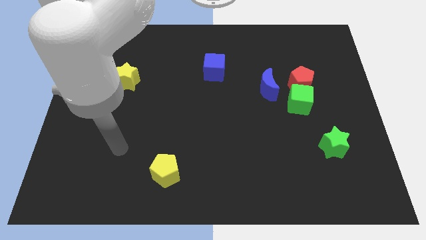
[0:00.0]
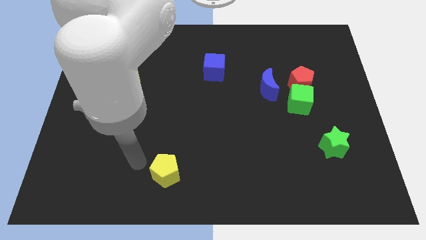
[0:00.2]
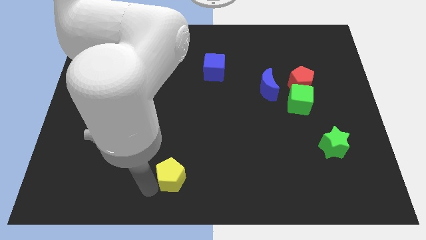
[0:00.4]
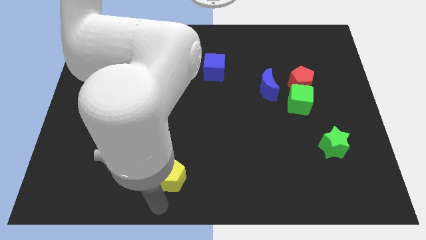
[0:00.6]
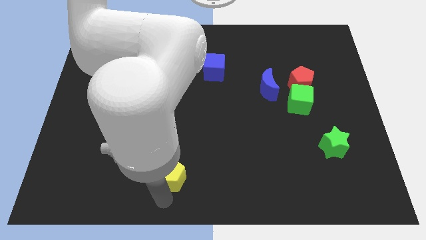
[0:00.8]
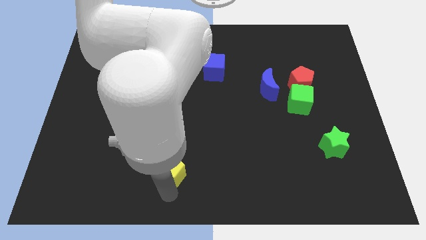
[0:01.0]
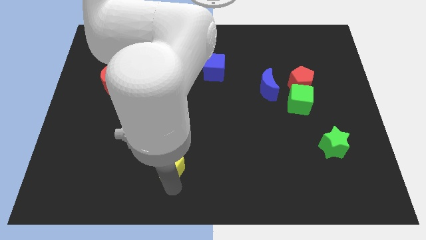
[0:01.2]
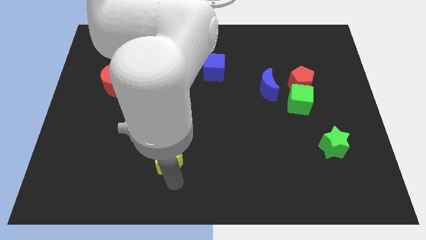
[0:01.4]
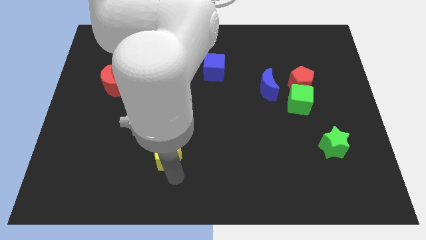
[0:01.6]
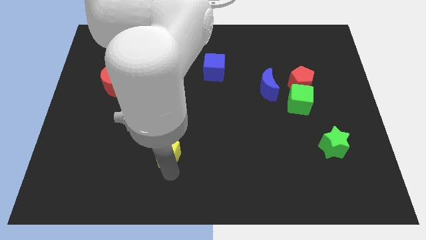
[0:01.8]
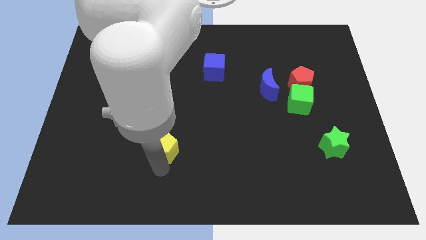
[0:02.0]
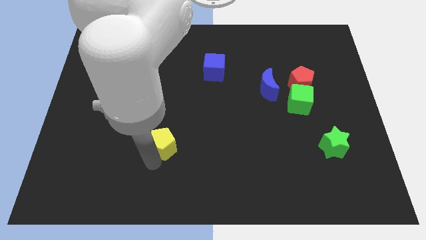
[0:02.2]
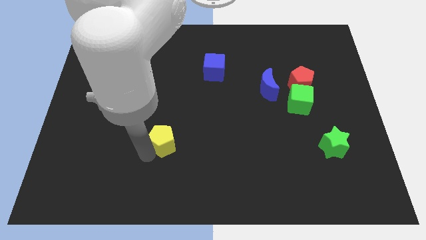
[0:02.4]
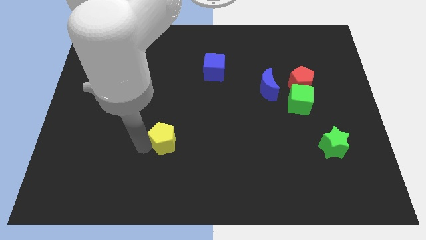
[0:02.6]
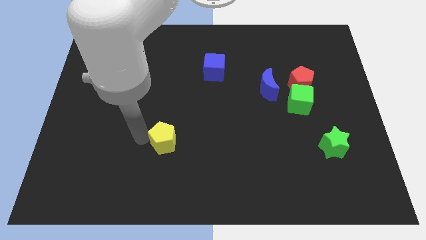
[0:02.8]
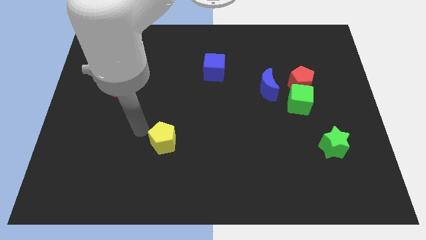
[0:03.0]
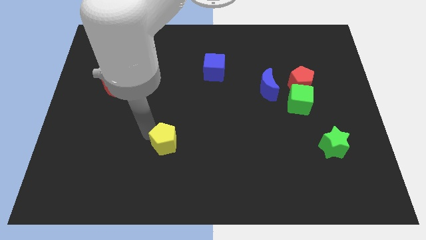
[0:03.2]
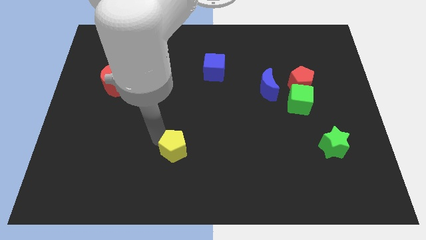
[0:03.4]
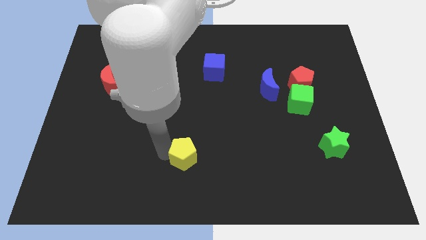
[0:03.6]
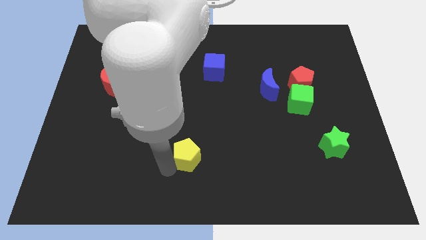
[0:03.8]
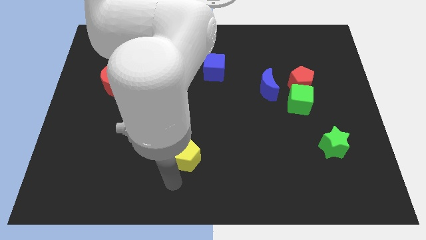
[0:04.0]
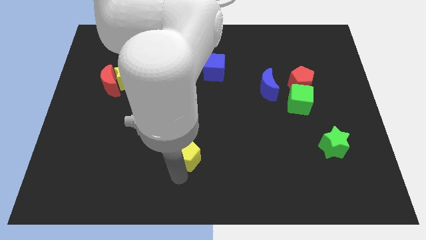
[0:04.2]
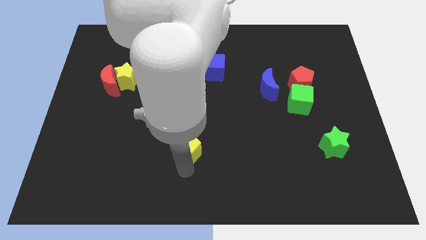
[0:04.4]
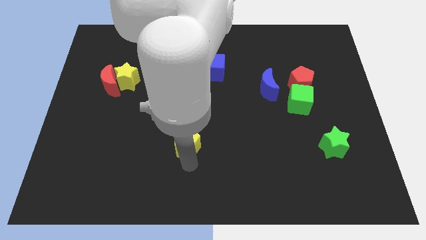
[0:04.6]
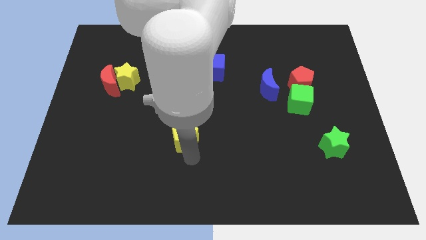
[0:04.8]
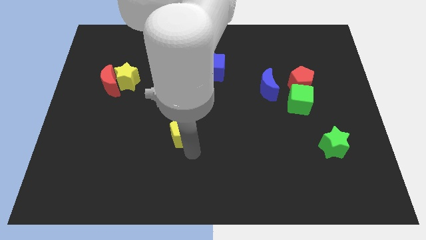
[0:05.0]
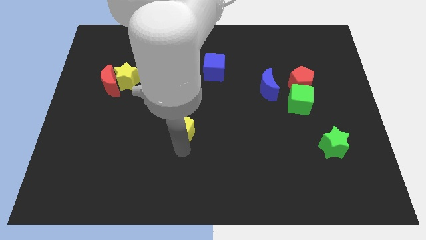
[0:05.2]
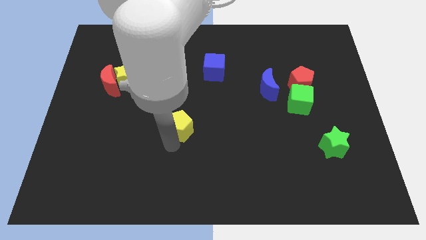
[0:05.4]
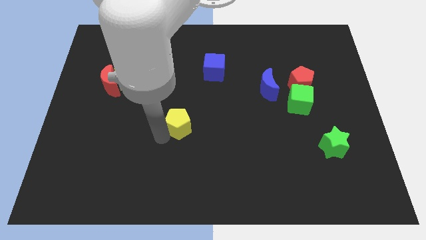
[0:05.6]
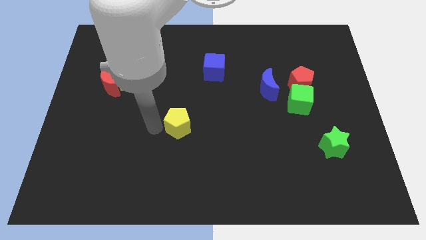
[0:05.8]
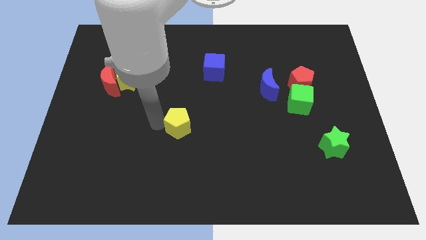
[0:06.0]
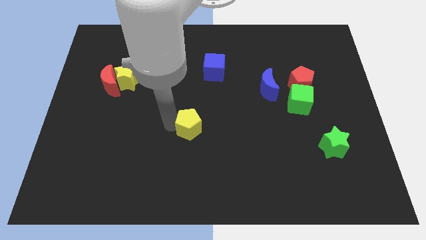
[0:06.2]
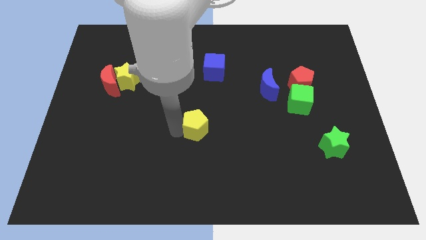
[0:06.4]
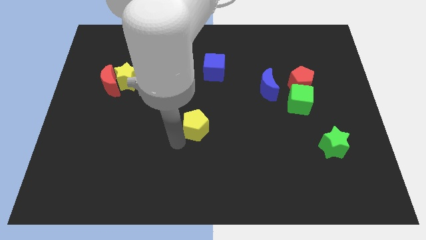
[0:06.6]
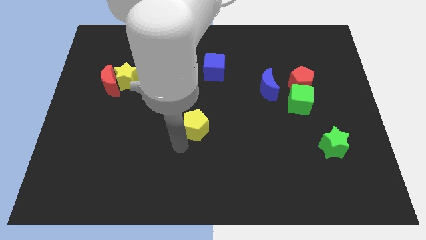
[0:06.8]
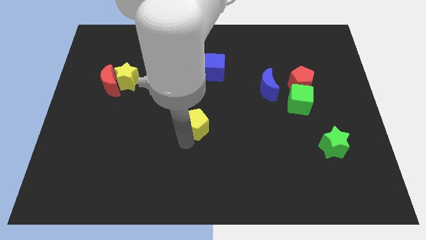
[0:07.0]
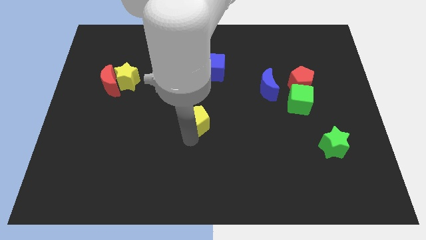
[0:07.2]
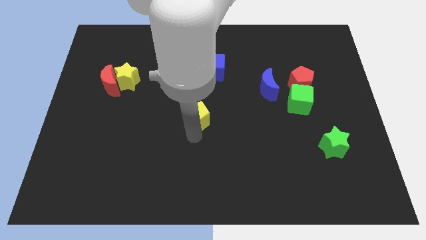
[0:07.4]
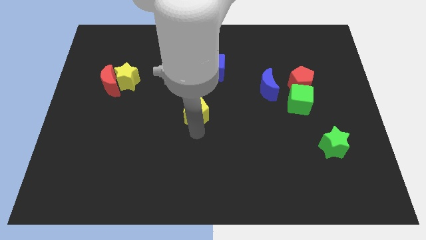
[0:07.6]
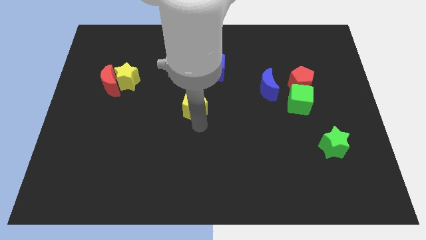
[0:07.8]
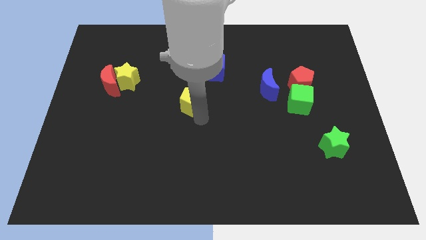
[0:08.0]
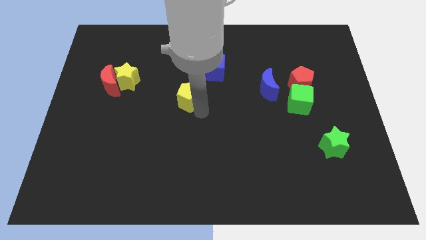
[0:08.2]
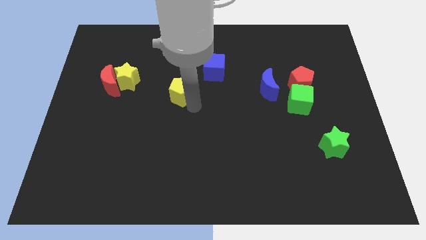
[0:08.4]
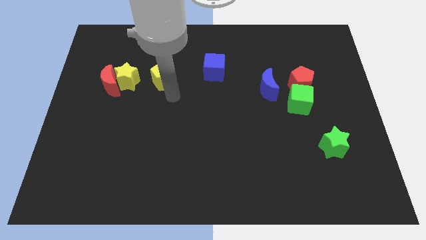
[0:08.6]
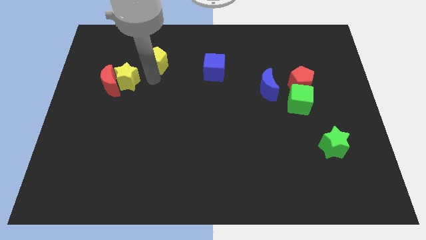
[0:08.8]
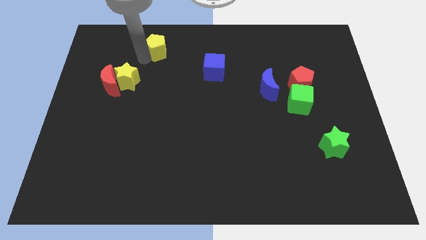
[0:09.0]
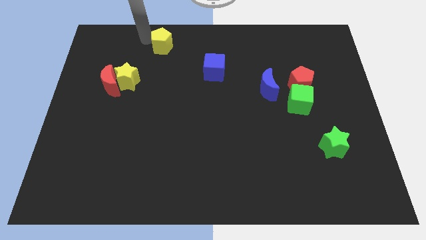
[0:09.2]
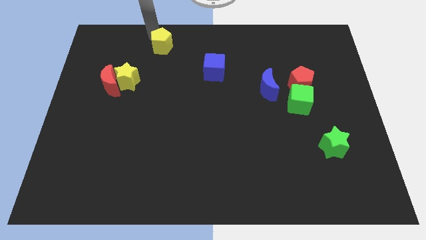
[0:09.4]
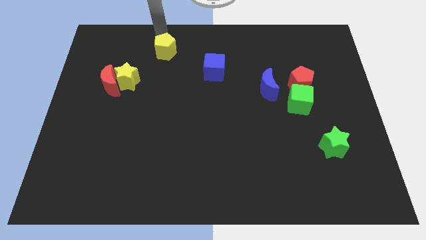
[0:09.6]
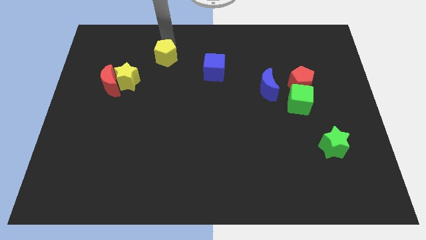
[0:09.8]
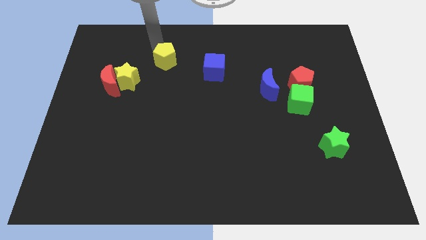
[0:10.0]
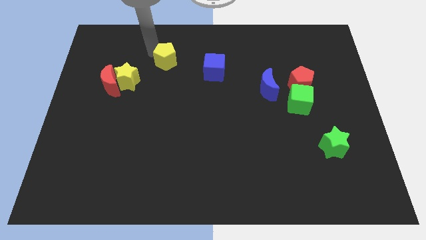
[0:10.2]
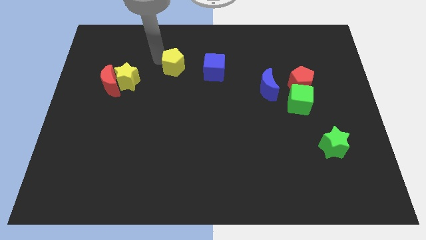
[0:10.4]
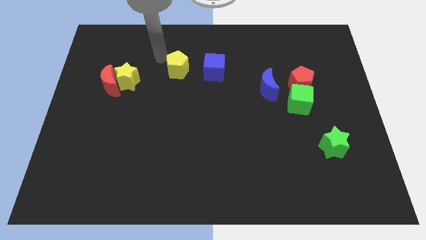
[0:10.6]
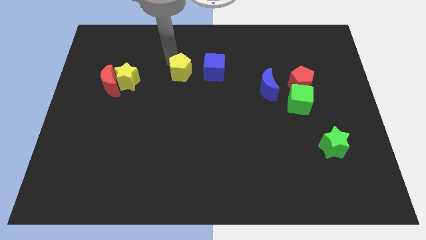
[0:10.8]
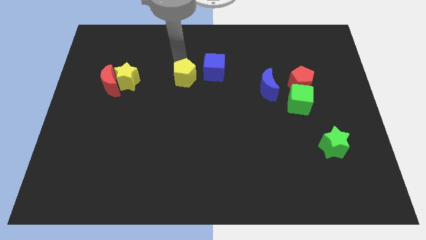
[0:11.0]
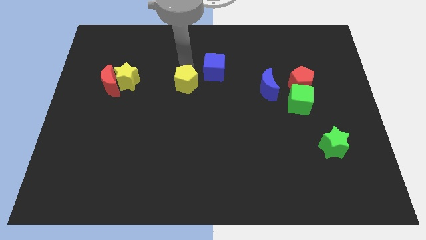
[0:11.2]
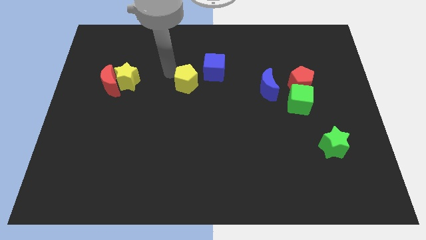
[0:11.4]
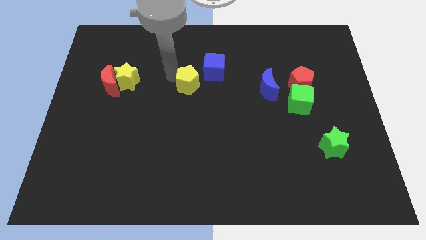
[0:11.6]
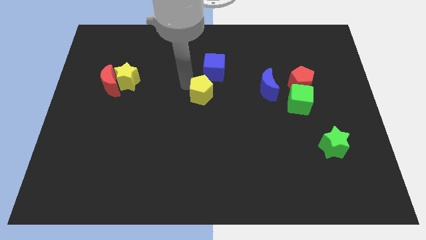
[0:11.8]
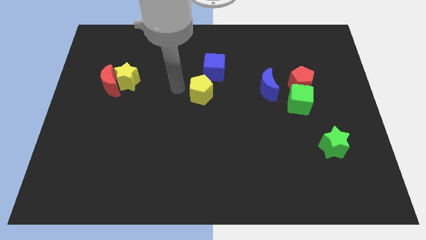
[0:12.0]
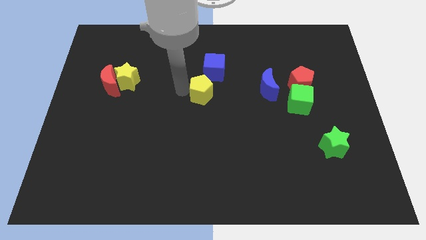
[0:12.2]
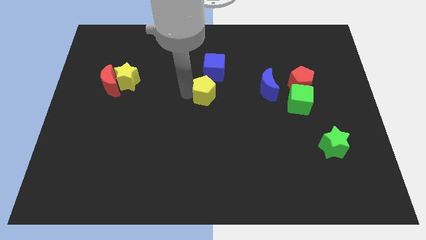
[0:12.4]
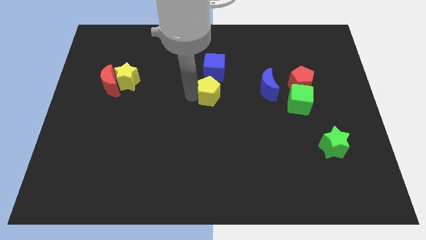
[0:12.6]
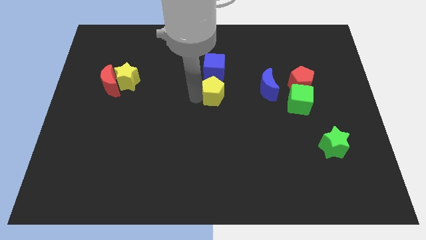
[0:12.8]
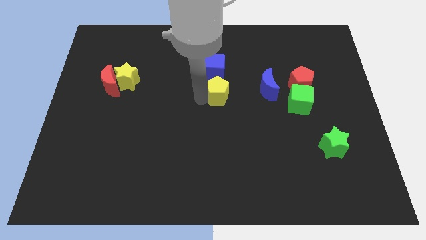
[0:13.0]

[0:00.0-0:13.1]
move the yellow pentagon diagonally down and to the right of the blue cube

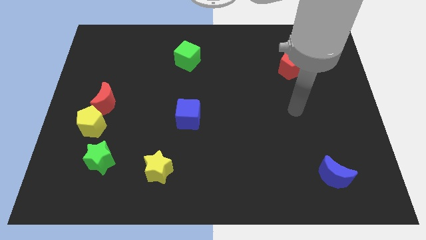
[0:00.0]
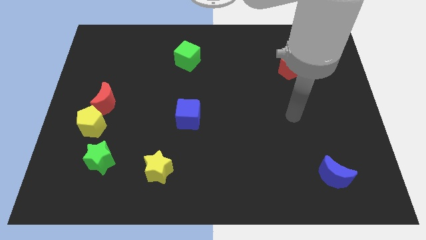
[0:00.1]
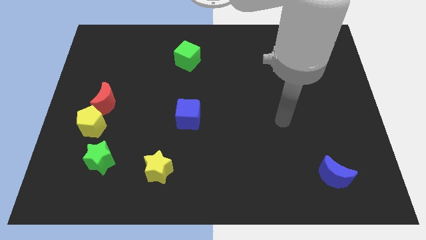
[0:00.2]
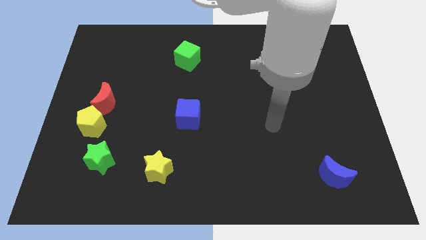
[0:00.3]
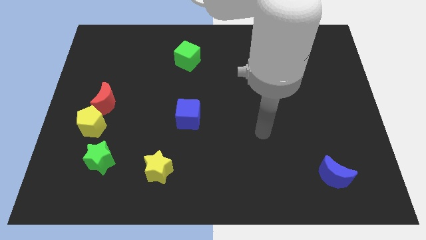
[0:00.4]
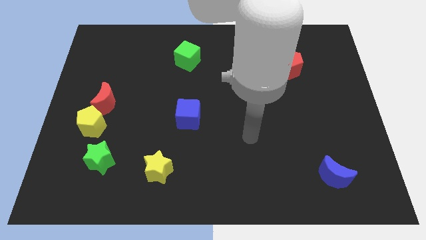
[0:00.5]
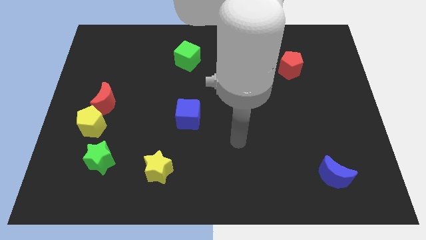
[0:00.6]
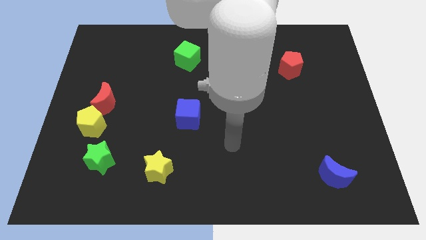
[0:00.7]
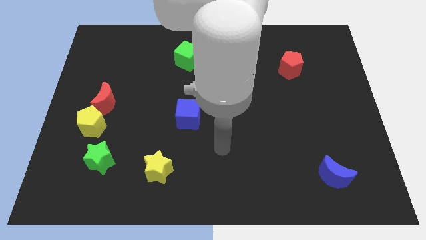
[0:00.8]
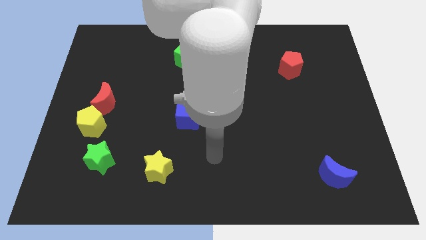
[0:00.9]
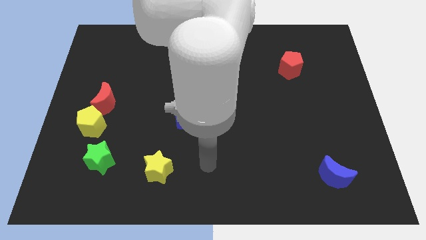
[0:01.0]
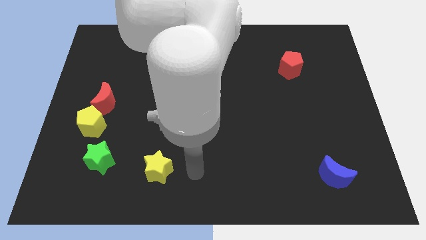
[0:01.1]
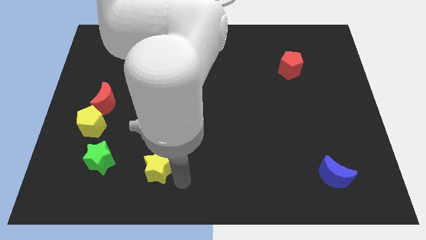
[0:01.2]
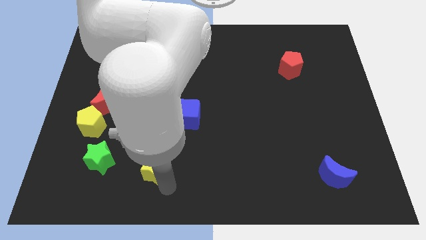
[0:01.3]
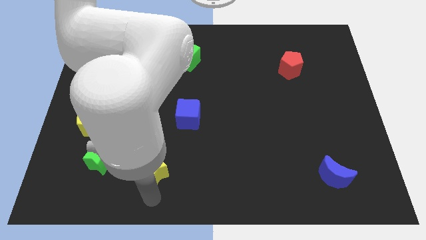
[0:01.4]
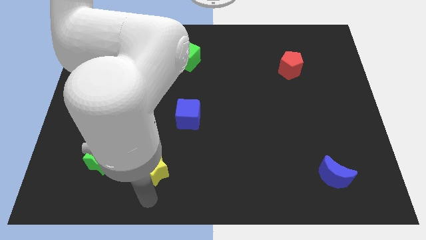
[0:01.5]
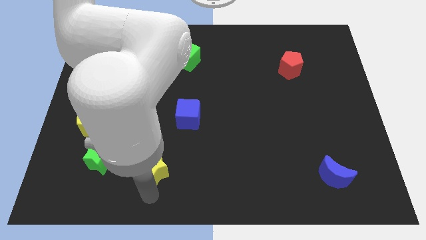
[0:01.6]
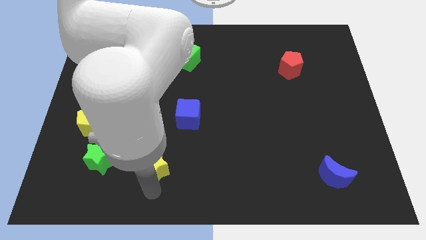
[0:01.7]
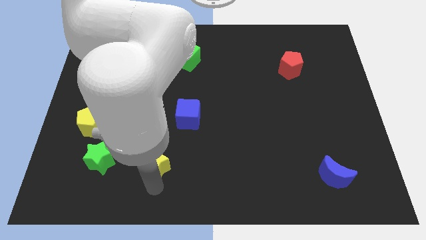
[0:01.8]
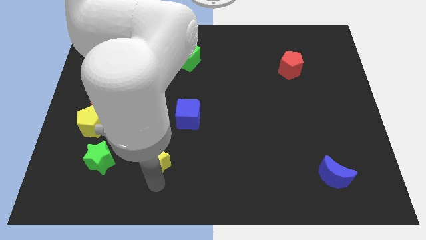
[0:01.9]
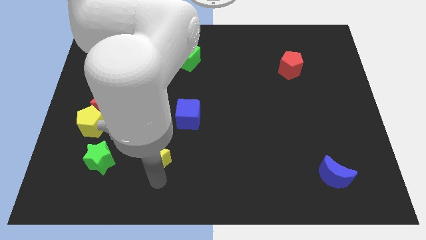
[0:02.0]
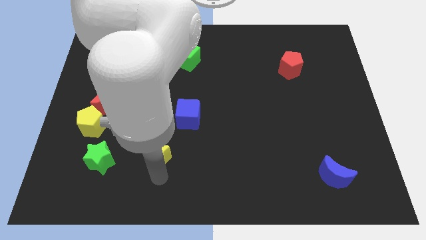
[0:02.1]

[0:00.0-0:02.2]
push the yellow star diagonally down and to the left of the blue cube
